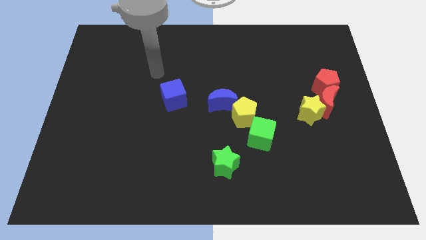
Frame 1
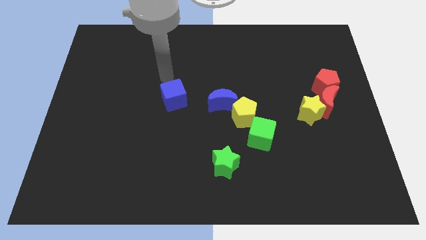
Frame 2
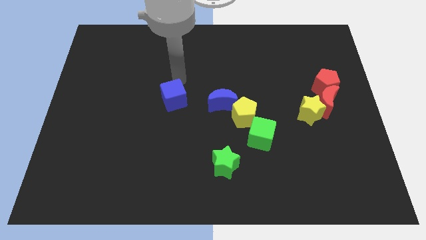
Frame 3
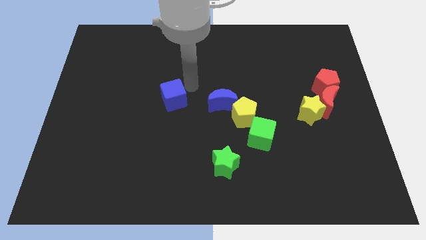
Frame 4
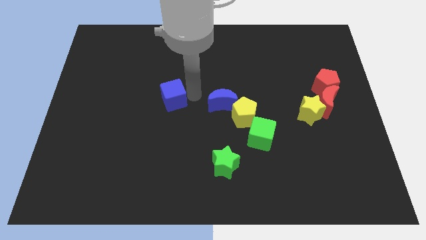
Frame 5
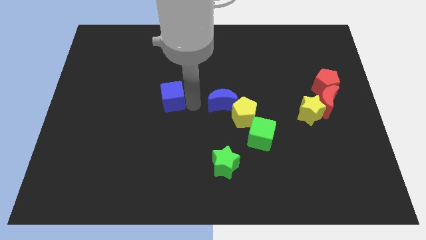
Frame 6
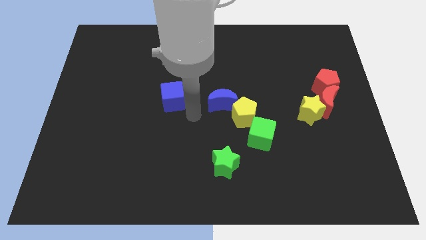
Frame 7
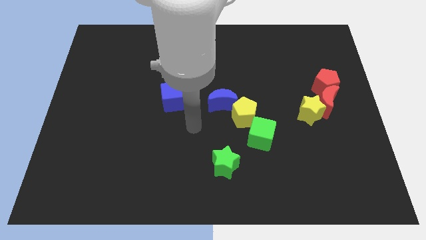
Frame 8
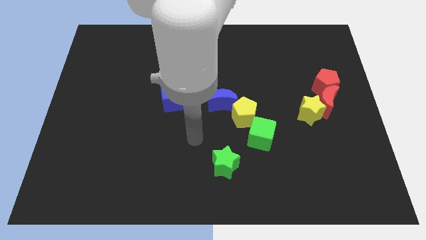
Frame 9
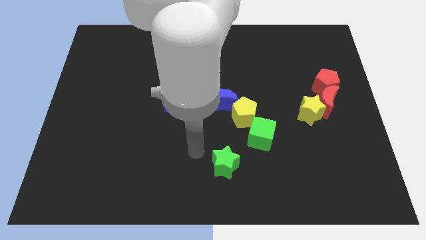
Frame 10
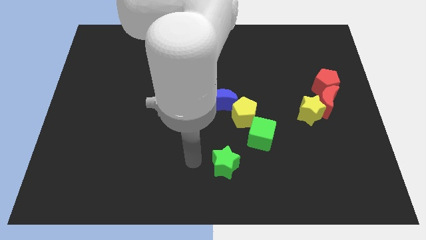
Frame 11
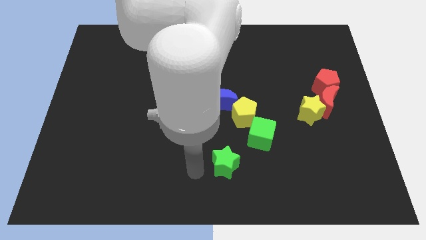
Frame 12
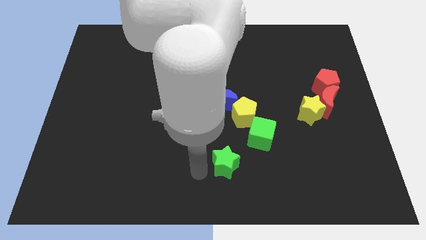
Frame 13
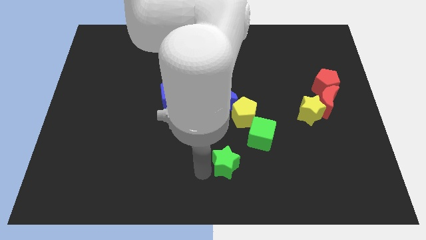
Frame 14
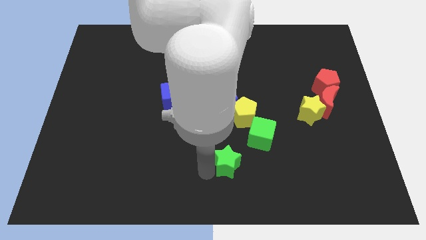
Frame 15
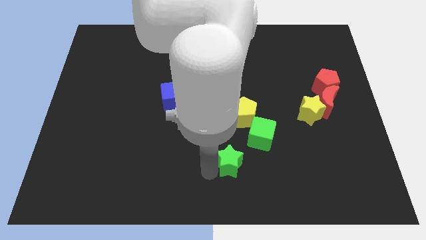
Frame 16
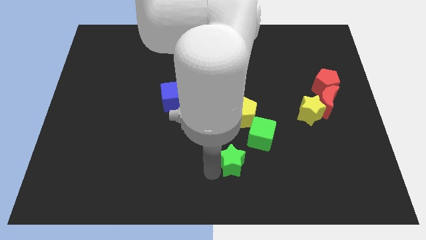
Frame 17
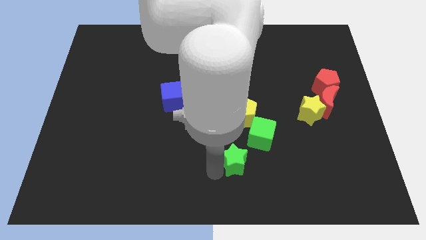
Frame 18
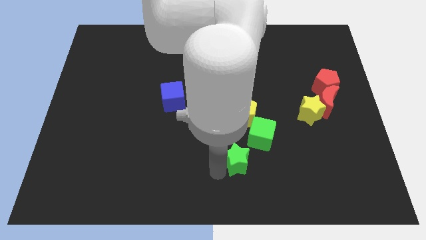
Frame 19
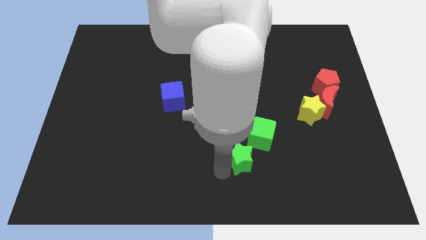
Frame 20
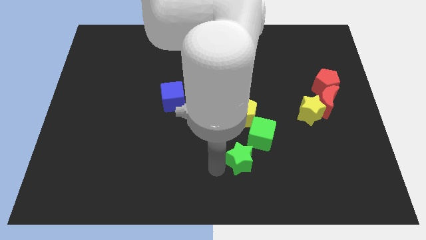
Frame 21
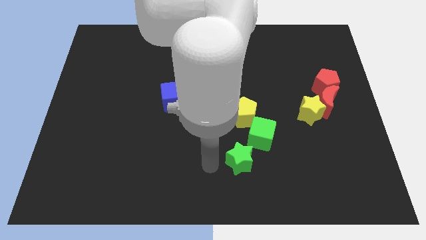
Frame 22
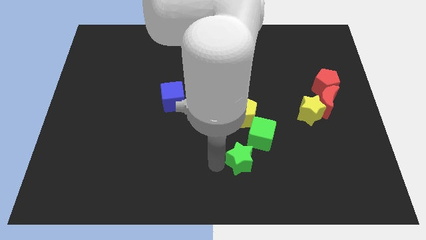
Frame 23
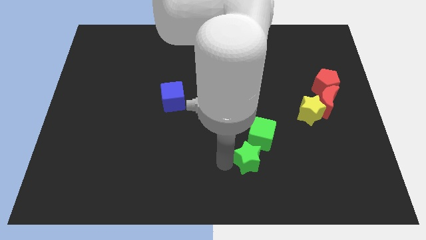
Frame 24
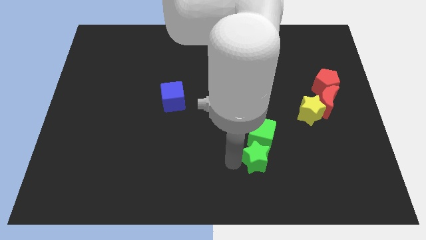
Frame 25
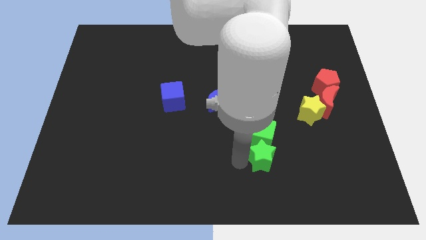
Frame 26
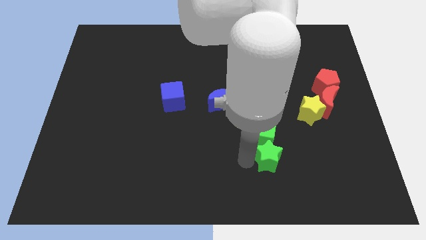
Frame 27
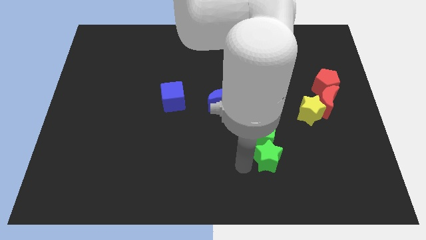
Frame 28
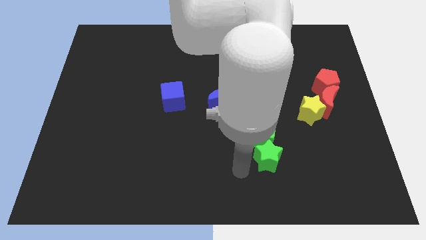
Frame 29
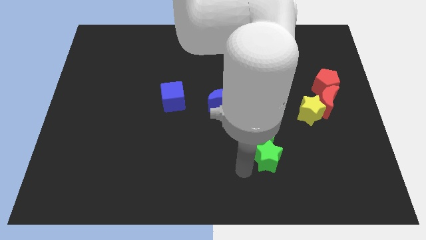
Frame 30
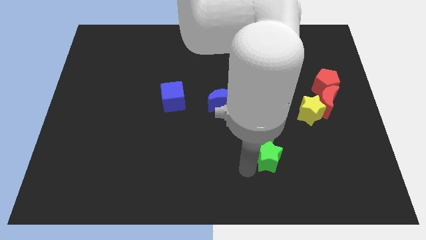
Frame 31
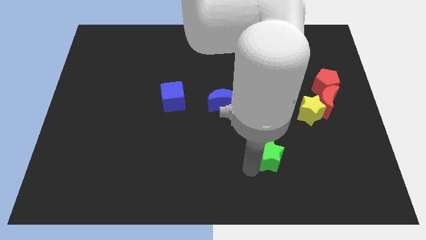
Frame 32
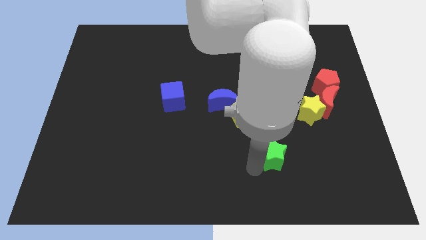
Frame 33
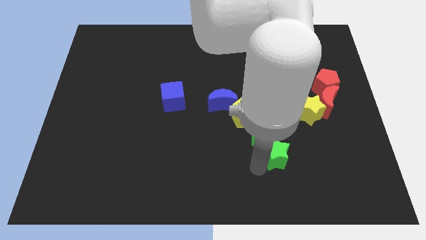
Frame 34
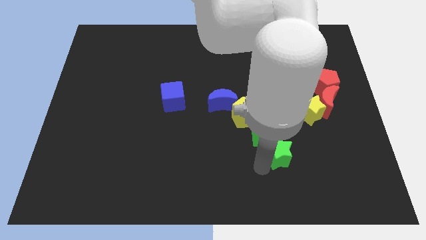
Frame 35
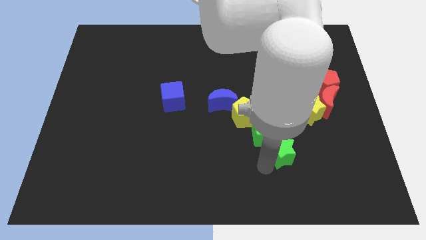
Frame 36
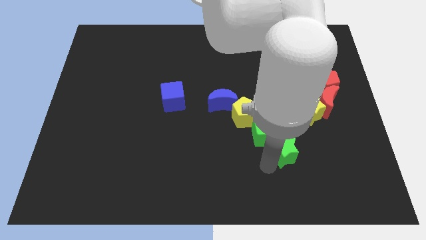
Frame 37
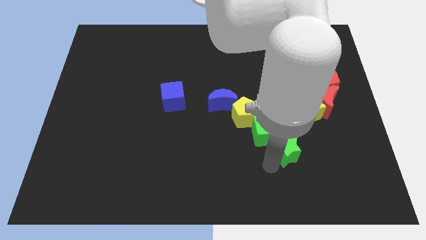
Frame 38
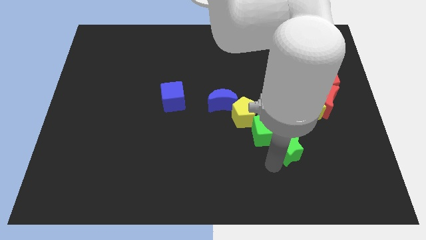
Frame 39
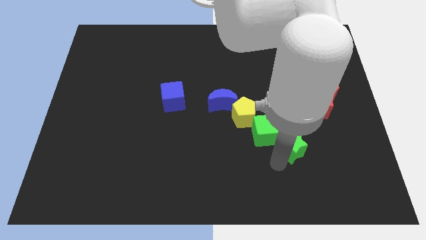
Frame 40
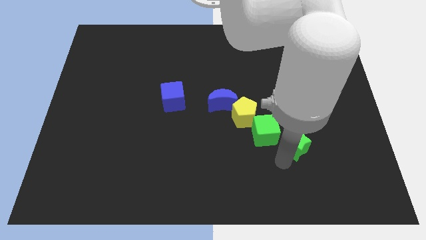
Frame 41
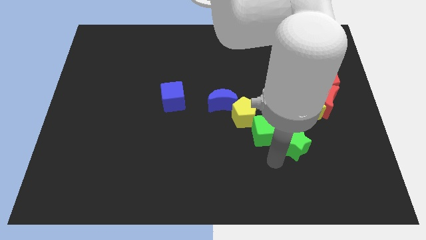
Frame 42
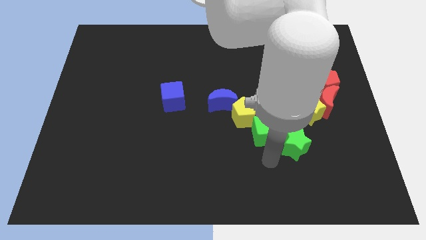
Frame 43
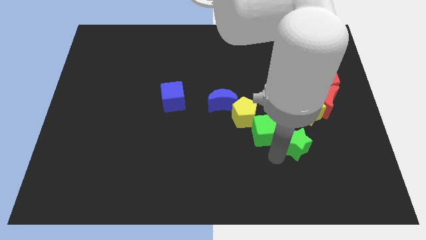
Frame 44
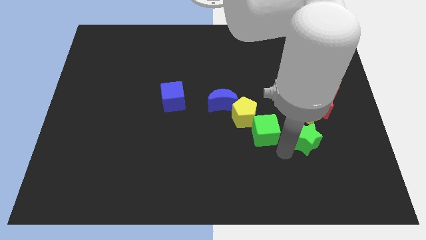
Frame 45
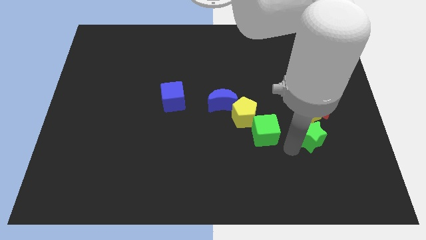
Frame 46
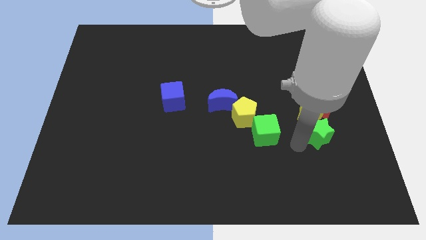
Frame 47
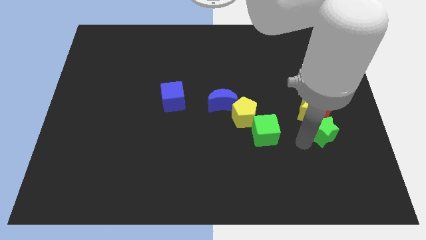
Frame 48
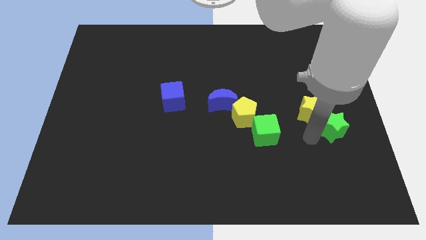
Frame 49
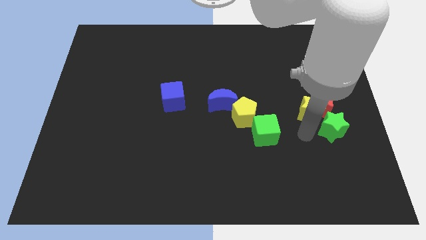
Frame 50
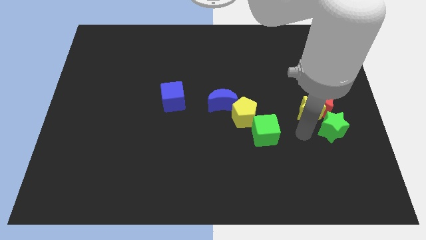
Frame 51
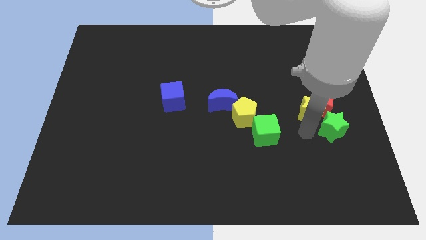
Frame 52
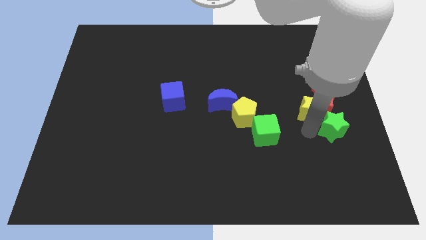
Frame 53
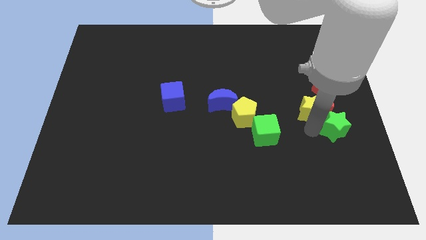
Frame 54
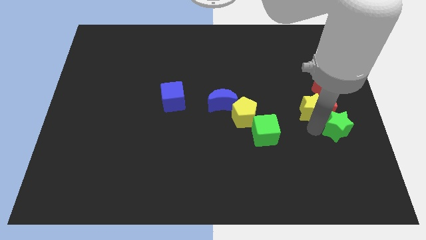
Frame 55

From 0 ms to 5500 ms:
move the green star to the center right

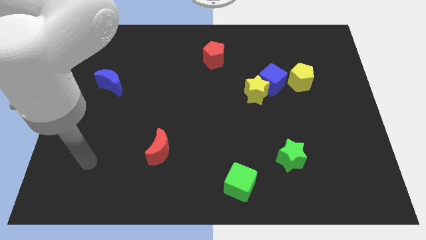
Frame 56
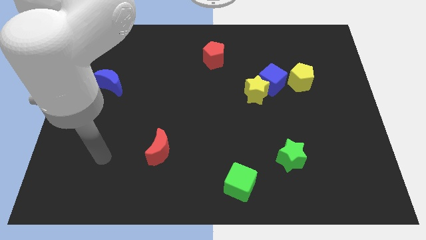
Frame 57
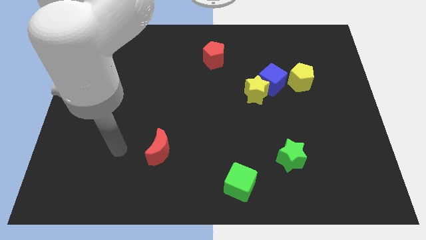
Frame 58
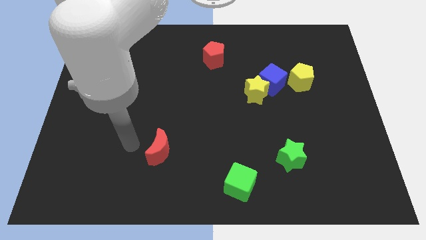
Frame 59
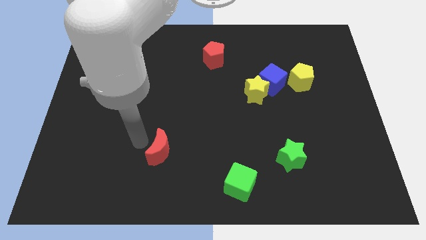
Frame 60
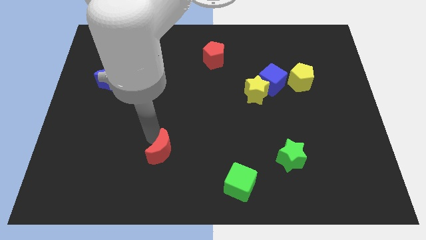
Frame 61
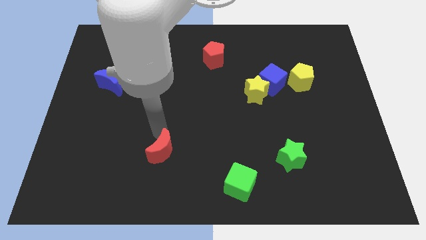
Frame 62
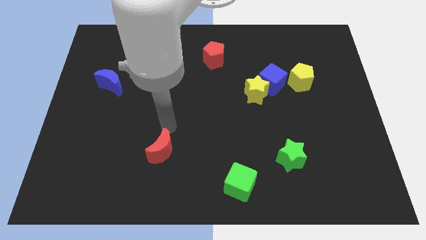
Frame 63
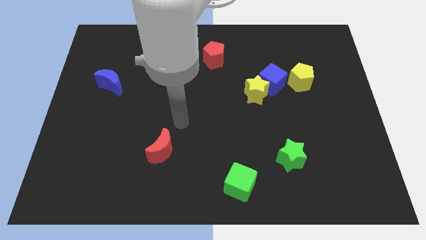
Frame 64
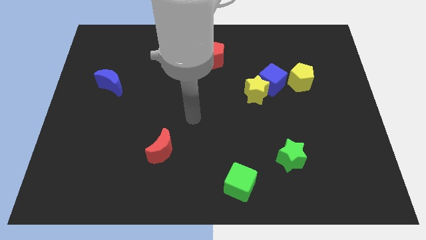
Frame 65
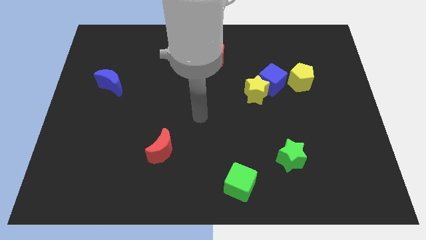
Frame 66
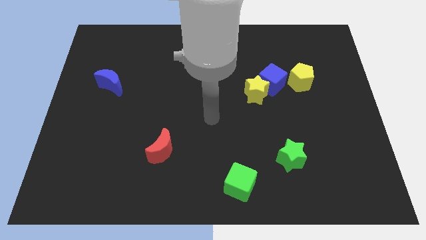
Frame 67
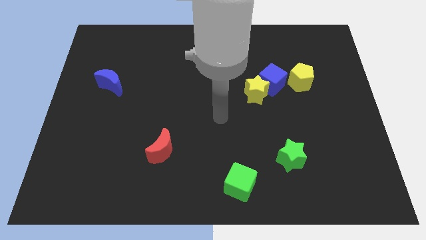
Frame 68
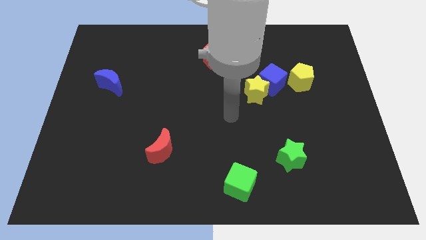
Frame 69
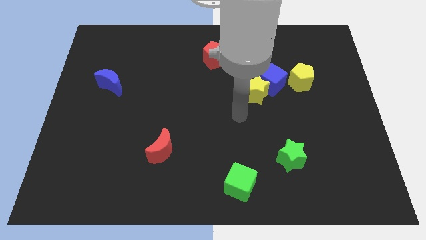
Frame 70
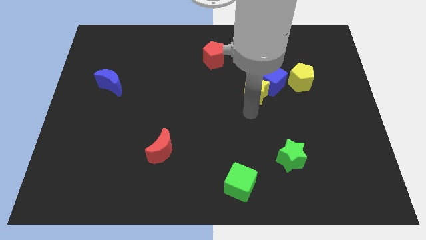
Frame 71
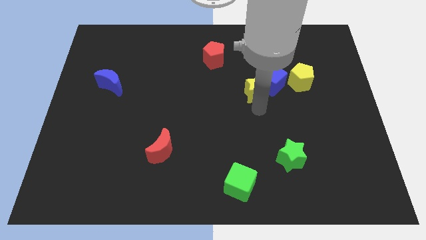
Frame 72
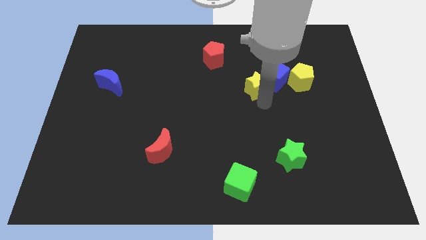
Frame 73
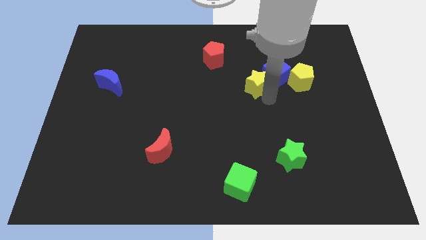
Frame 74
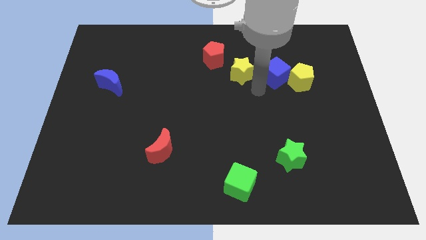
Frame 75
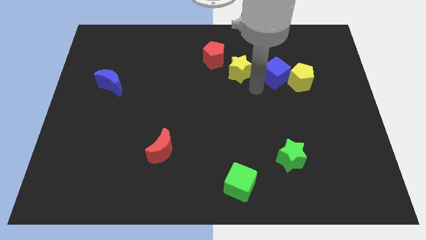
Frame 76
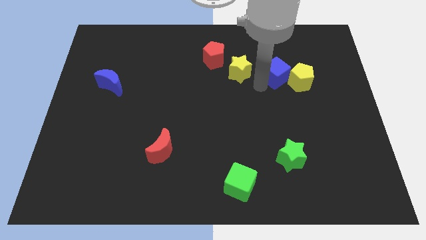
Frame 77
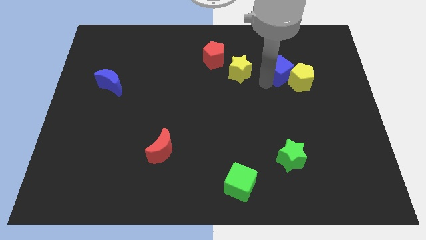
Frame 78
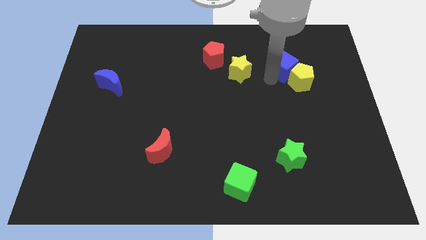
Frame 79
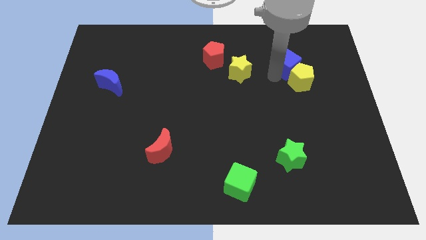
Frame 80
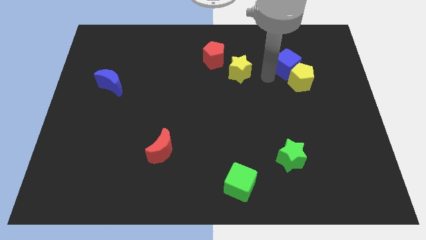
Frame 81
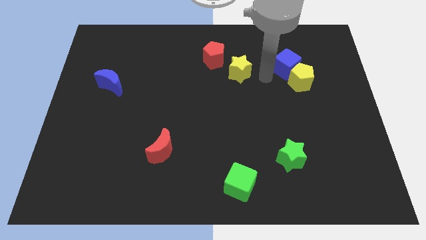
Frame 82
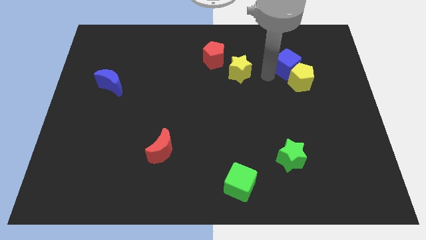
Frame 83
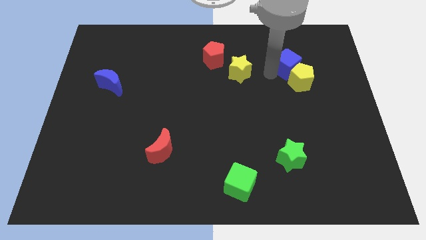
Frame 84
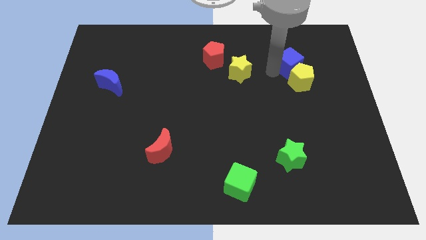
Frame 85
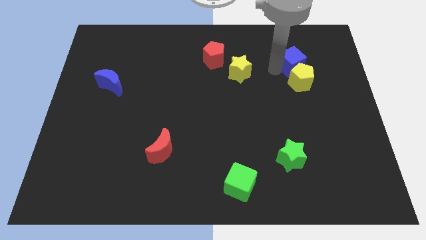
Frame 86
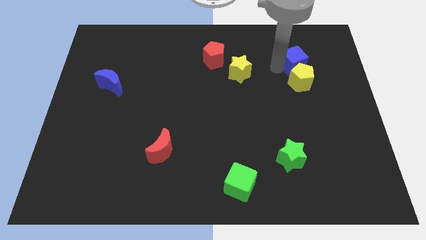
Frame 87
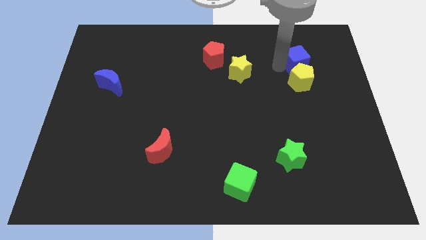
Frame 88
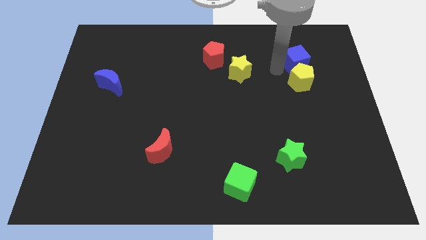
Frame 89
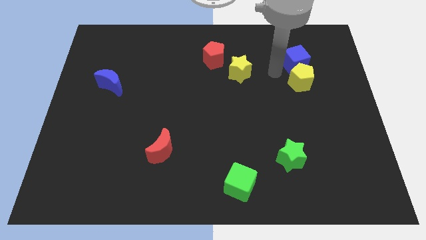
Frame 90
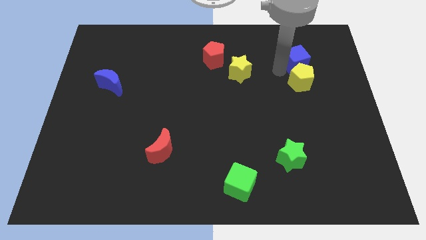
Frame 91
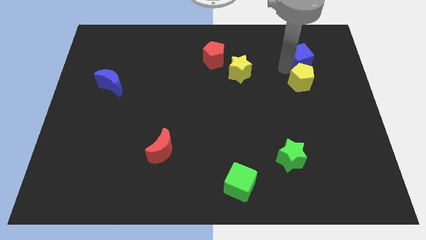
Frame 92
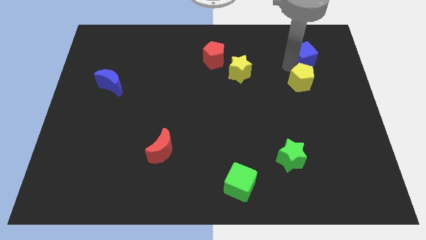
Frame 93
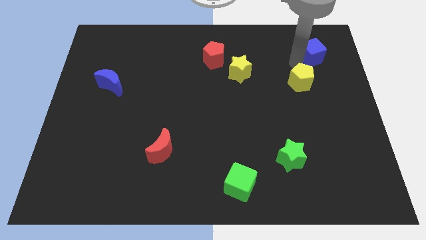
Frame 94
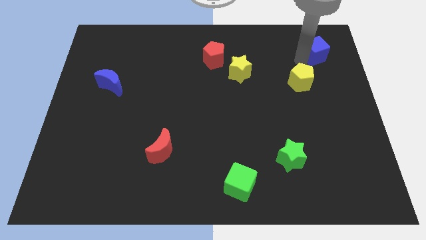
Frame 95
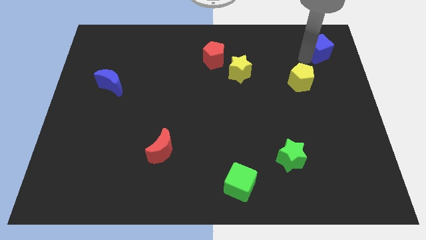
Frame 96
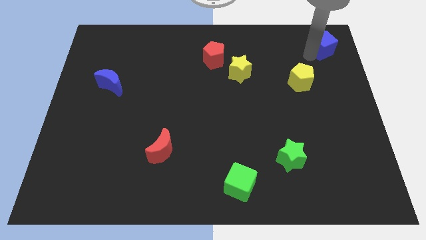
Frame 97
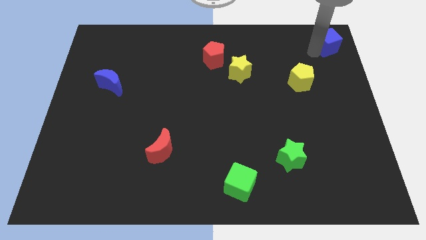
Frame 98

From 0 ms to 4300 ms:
slide the blue cube to the upper right corner
